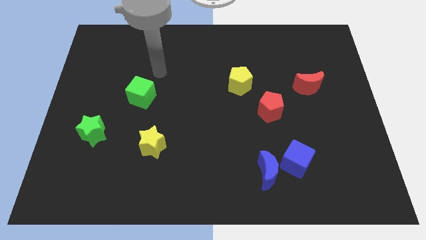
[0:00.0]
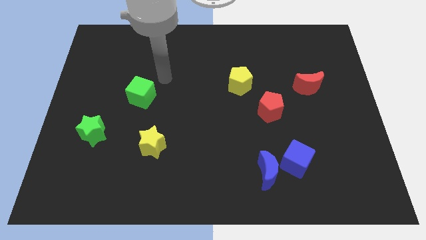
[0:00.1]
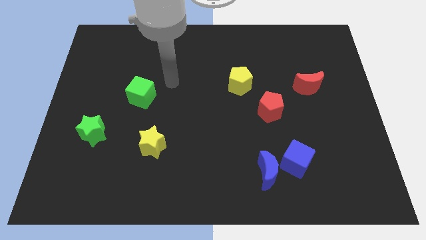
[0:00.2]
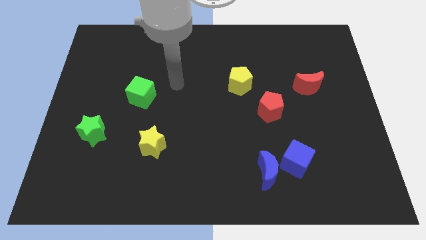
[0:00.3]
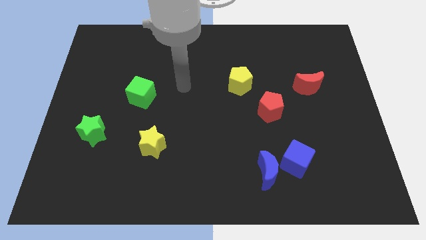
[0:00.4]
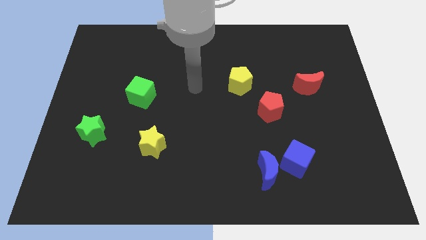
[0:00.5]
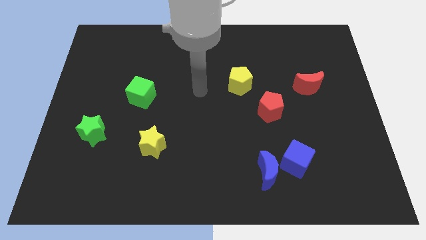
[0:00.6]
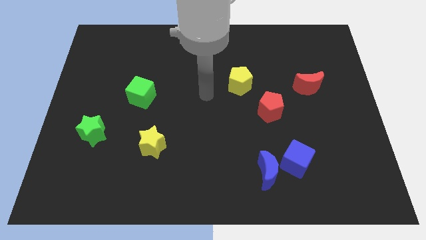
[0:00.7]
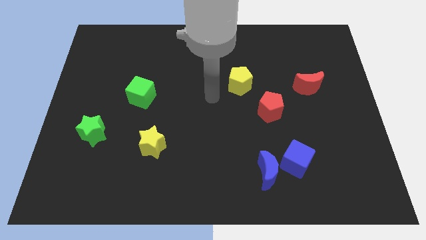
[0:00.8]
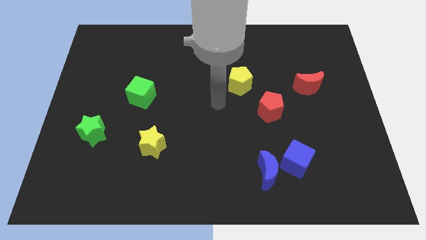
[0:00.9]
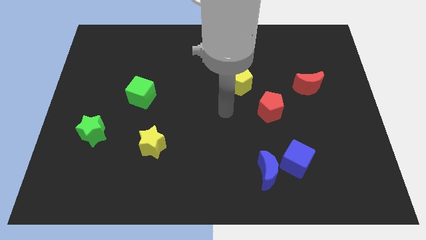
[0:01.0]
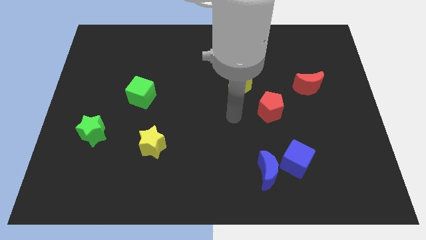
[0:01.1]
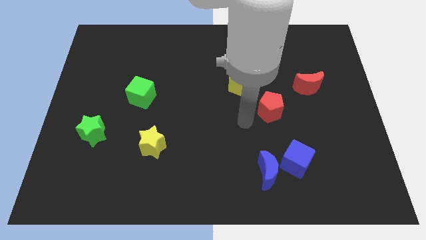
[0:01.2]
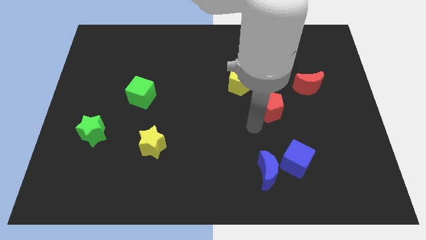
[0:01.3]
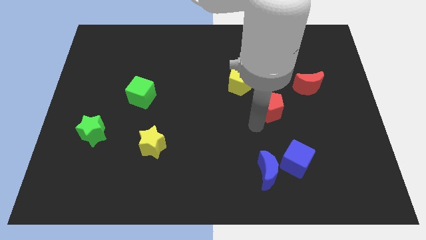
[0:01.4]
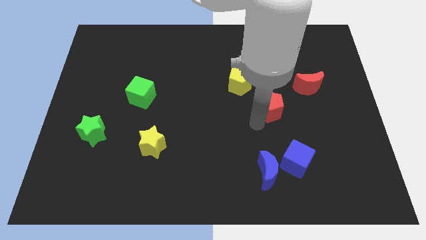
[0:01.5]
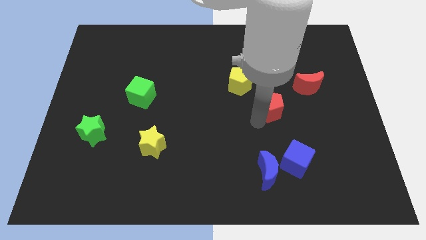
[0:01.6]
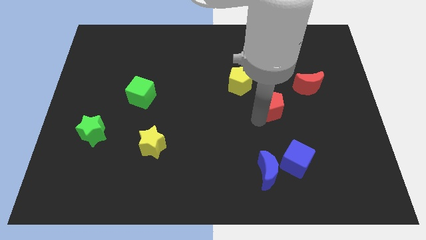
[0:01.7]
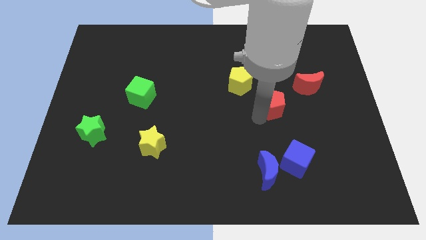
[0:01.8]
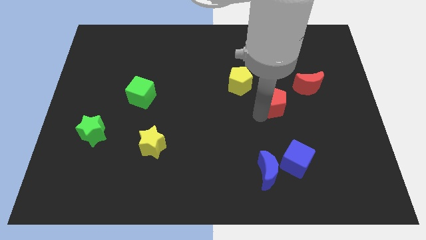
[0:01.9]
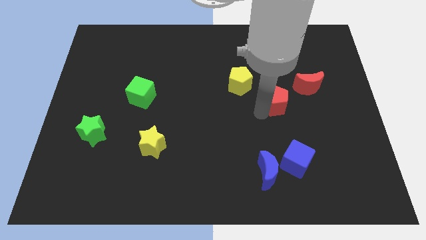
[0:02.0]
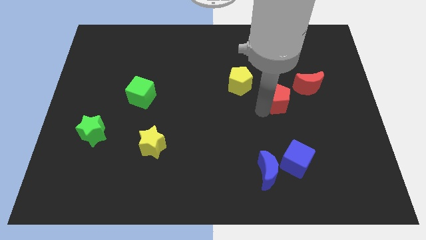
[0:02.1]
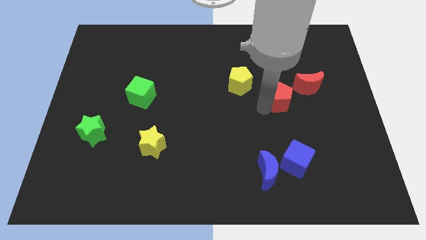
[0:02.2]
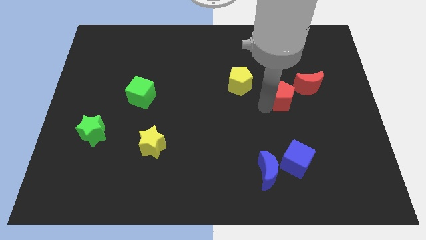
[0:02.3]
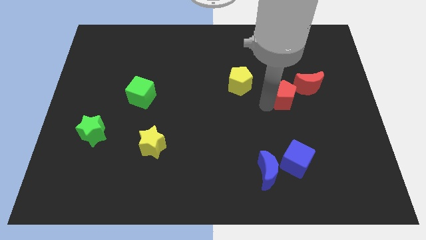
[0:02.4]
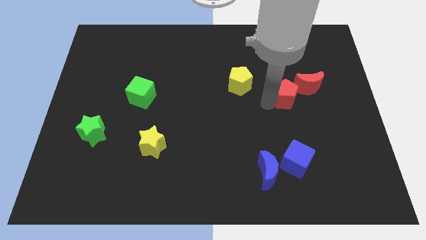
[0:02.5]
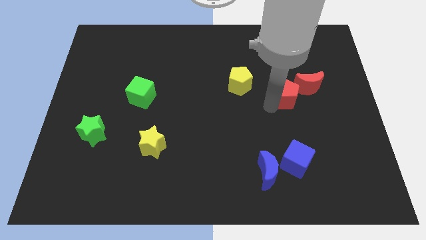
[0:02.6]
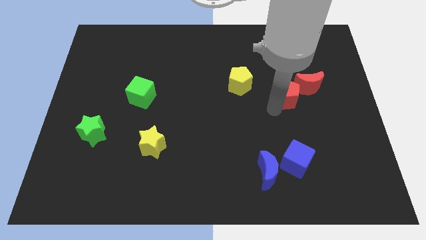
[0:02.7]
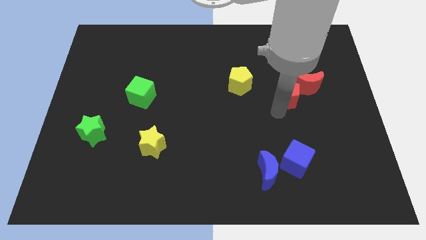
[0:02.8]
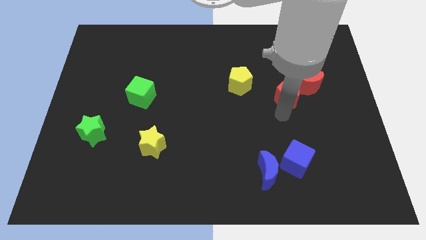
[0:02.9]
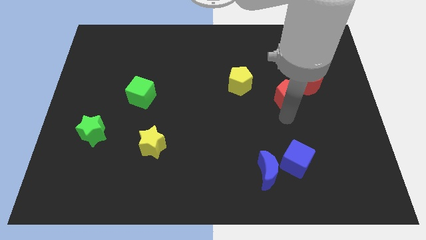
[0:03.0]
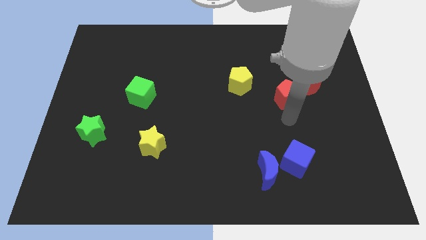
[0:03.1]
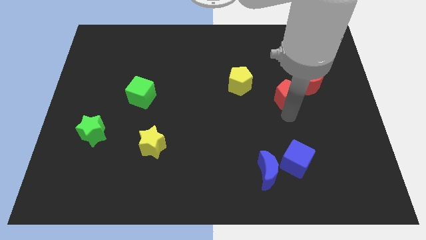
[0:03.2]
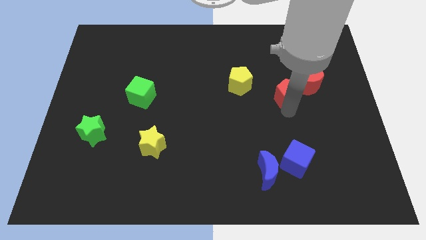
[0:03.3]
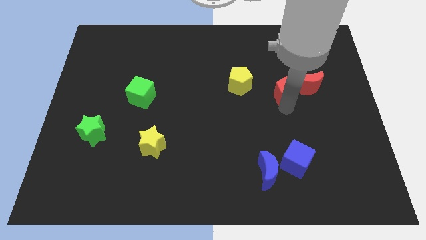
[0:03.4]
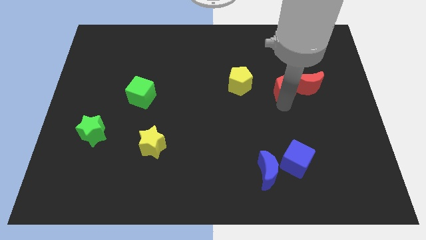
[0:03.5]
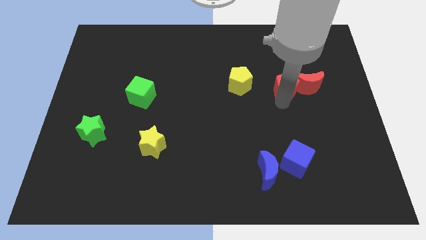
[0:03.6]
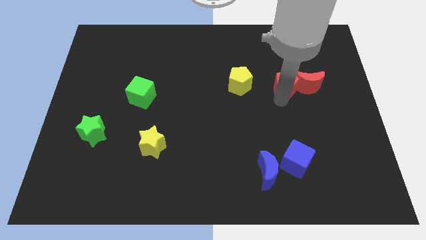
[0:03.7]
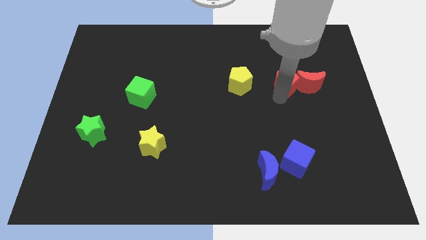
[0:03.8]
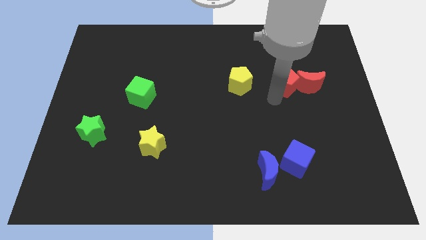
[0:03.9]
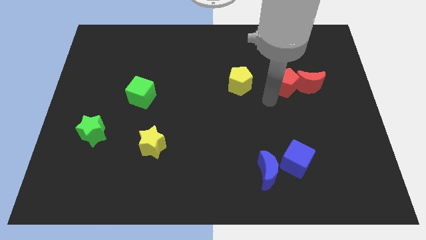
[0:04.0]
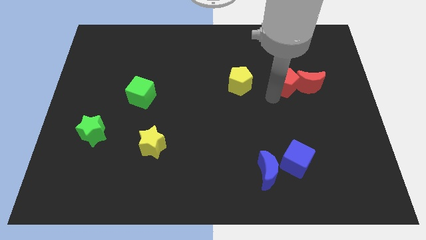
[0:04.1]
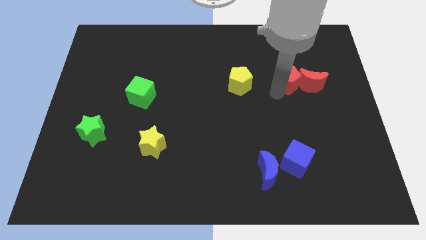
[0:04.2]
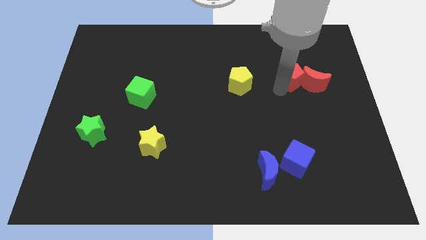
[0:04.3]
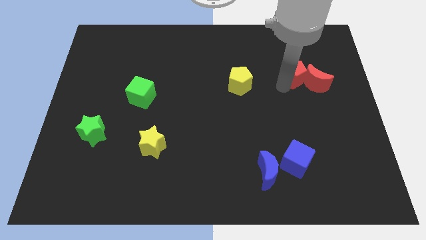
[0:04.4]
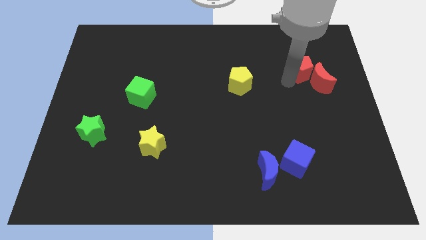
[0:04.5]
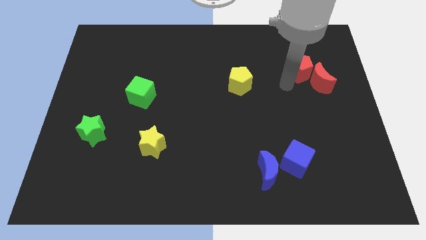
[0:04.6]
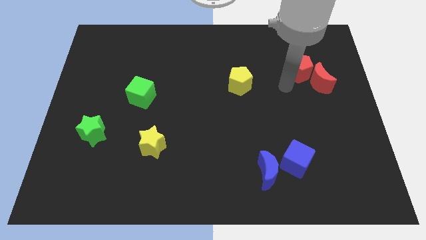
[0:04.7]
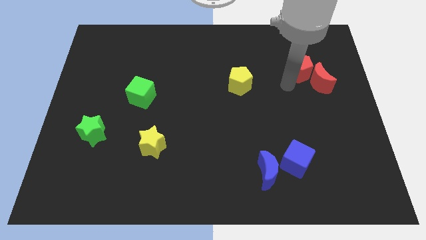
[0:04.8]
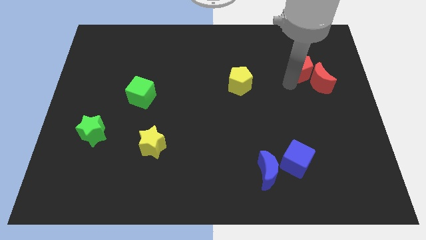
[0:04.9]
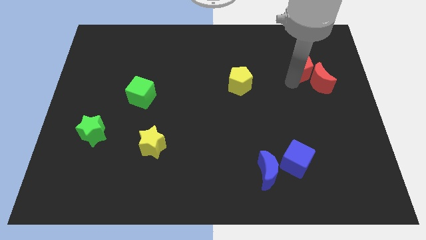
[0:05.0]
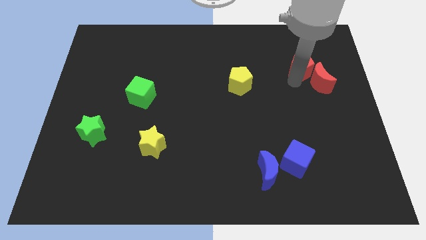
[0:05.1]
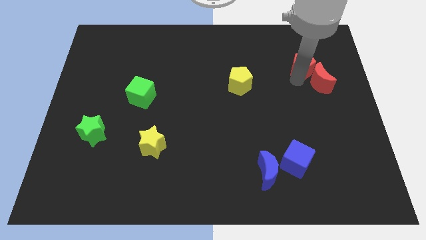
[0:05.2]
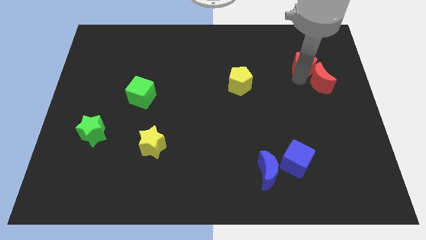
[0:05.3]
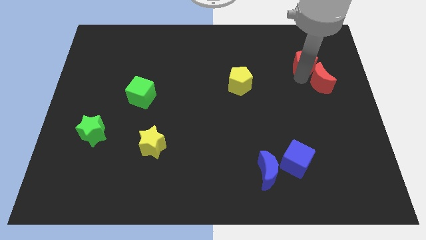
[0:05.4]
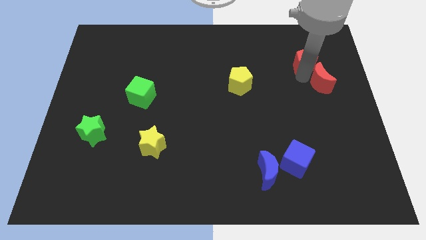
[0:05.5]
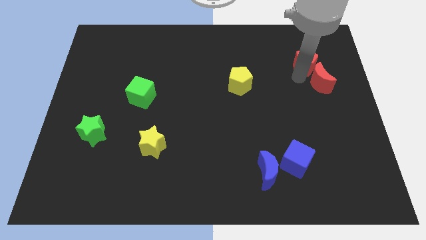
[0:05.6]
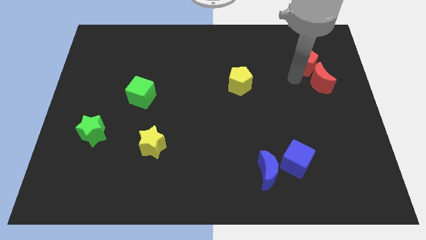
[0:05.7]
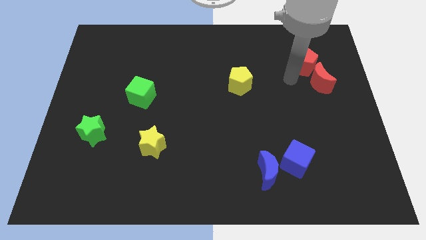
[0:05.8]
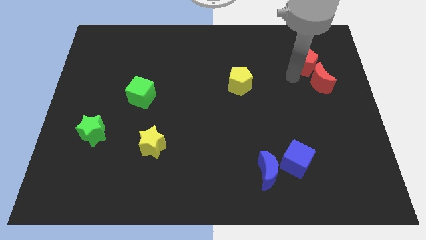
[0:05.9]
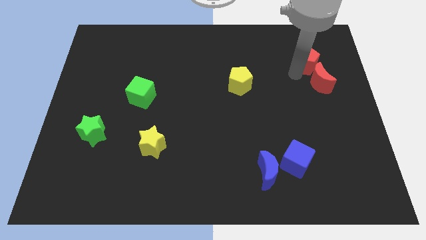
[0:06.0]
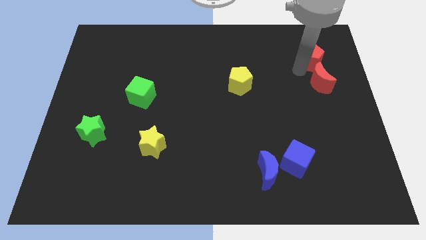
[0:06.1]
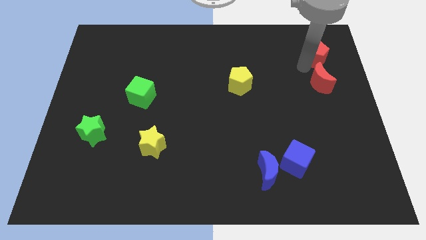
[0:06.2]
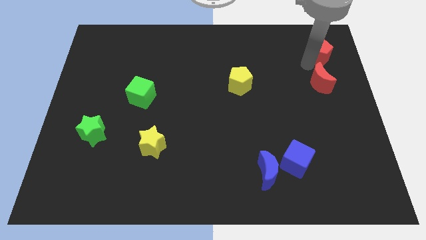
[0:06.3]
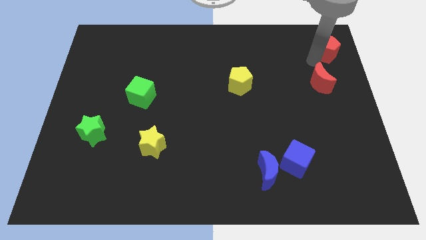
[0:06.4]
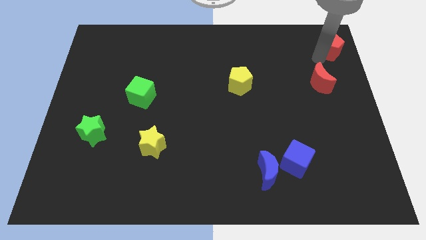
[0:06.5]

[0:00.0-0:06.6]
put the red pentagon to the top right
